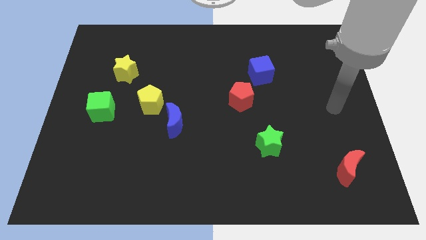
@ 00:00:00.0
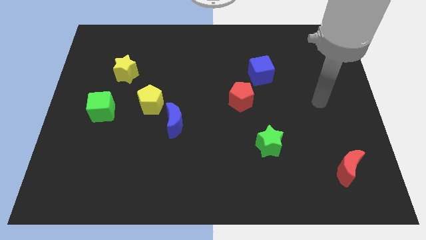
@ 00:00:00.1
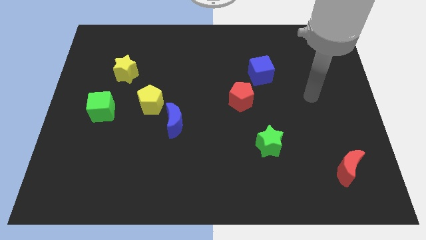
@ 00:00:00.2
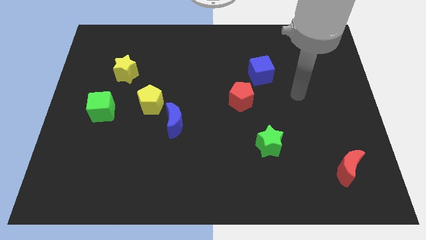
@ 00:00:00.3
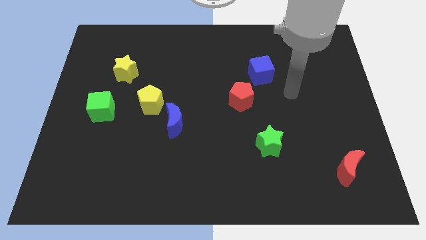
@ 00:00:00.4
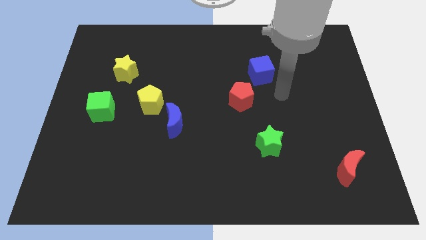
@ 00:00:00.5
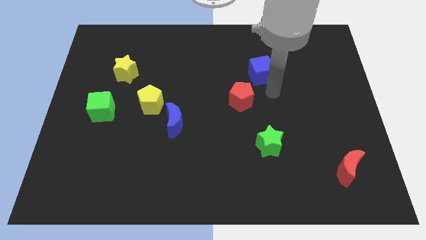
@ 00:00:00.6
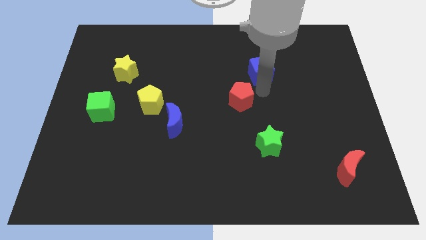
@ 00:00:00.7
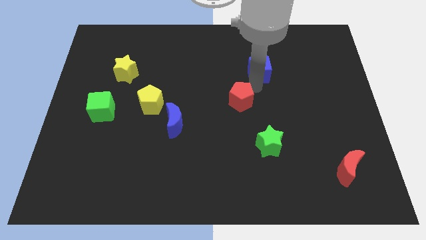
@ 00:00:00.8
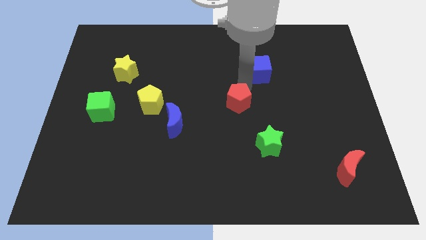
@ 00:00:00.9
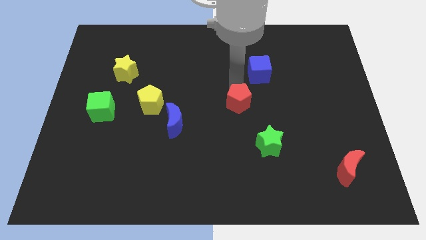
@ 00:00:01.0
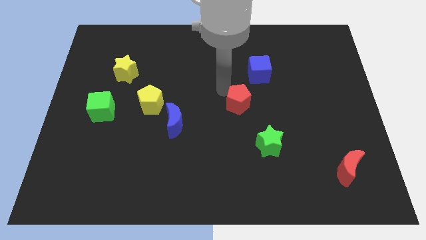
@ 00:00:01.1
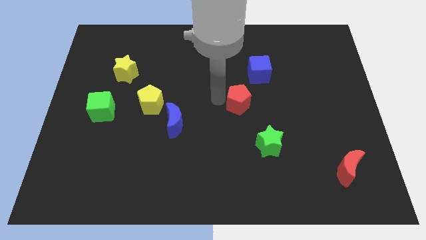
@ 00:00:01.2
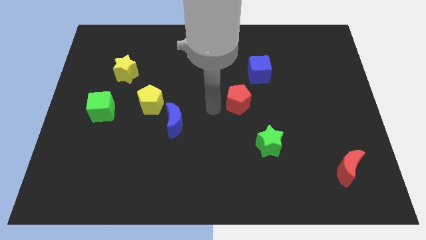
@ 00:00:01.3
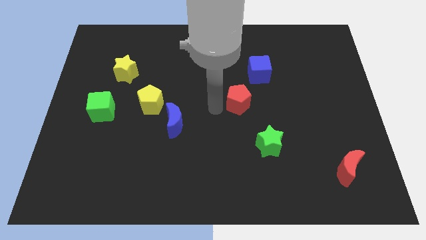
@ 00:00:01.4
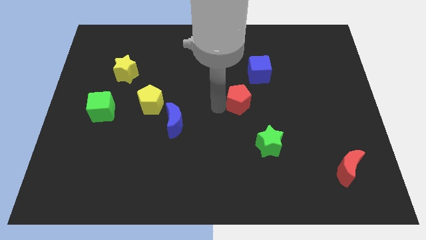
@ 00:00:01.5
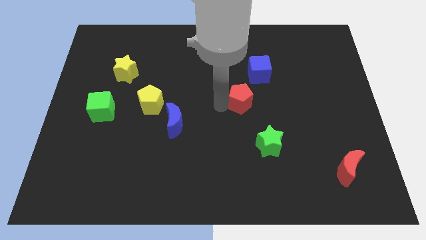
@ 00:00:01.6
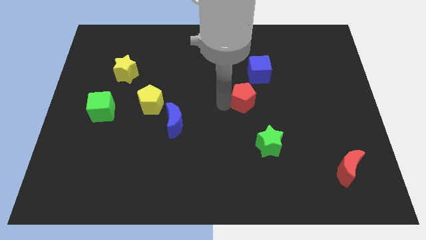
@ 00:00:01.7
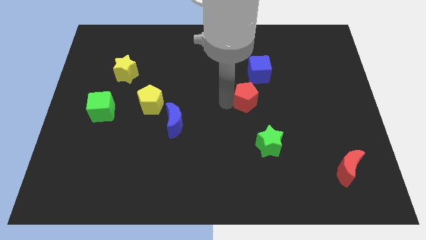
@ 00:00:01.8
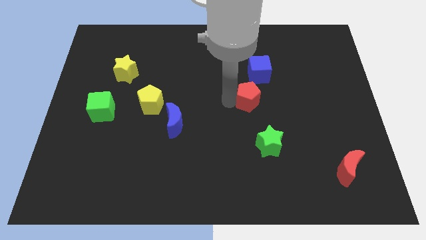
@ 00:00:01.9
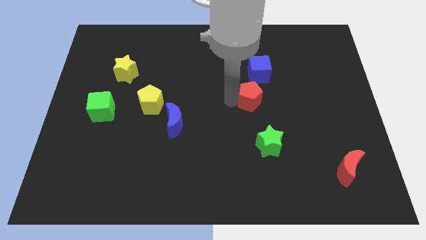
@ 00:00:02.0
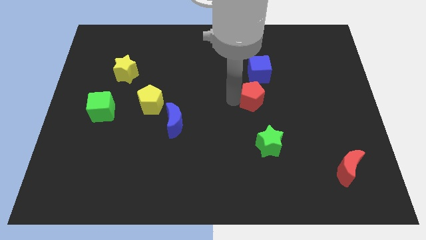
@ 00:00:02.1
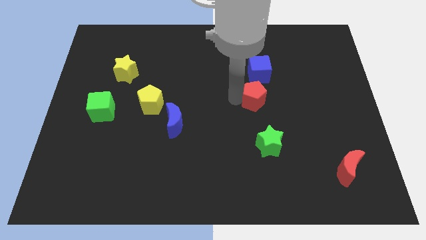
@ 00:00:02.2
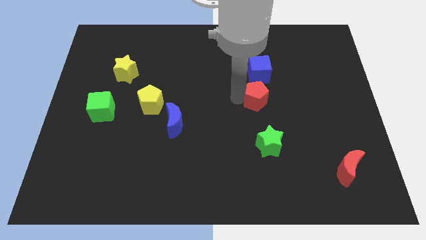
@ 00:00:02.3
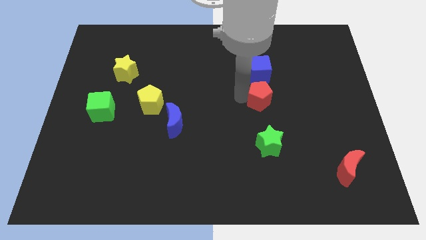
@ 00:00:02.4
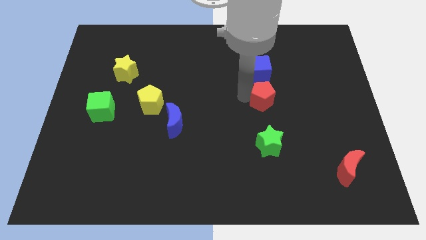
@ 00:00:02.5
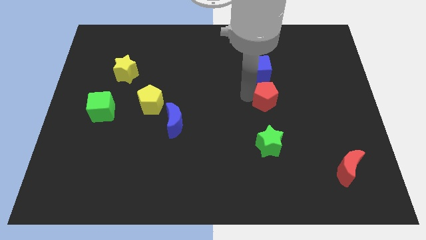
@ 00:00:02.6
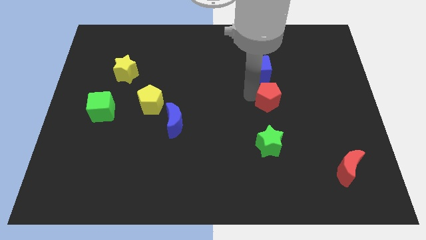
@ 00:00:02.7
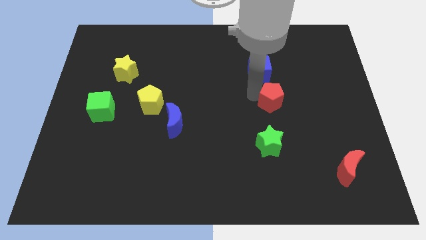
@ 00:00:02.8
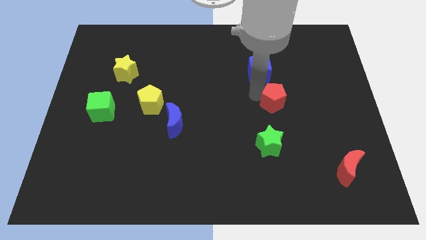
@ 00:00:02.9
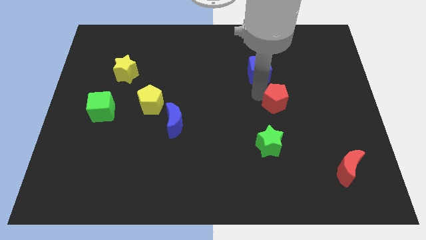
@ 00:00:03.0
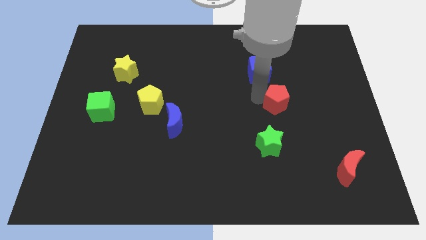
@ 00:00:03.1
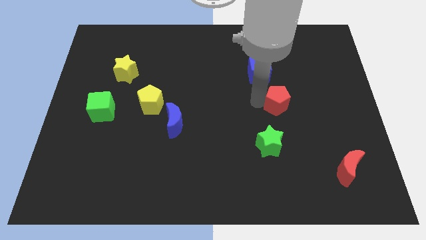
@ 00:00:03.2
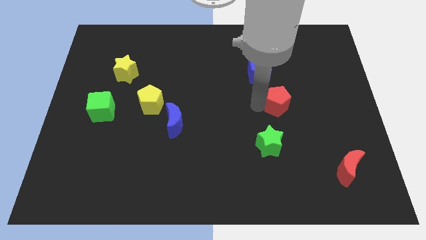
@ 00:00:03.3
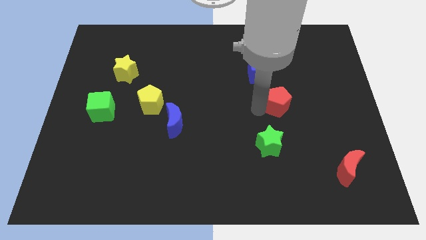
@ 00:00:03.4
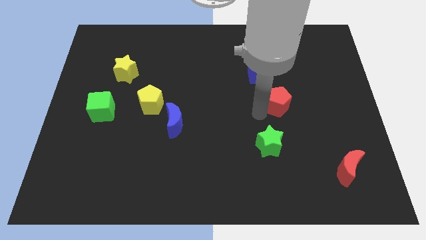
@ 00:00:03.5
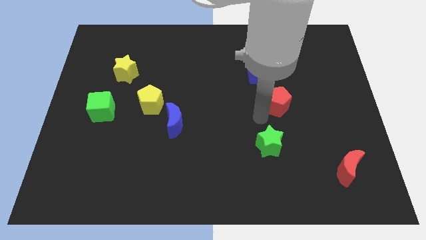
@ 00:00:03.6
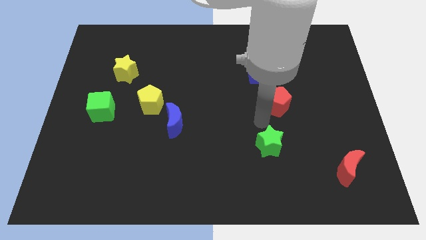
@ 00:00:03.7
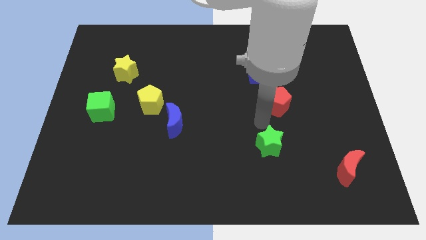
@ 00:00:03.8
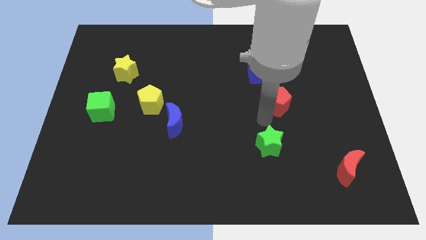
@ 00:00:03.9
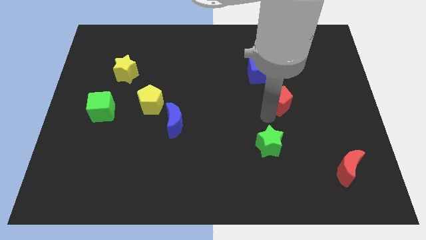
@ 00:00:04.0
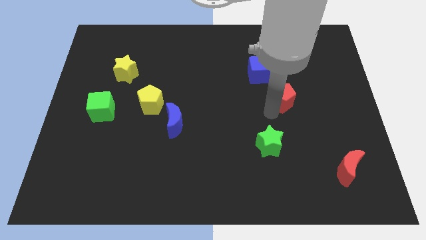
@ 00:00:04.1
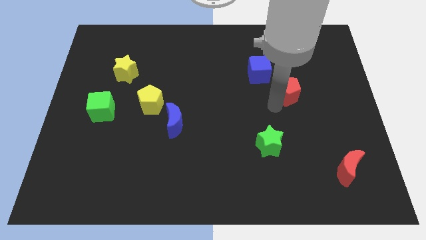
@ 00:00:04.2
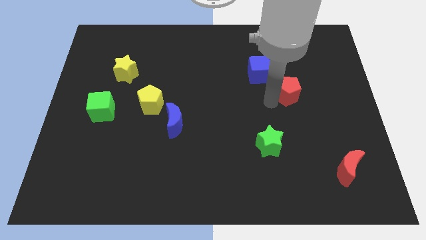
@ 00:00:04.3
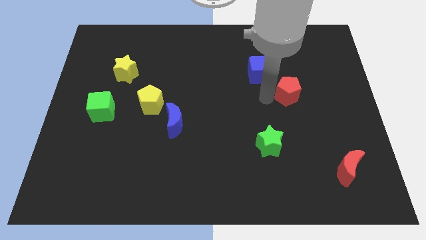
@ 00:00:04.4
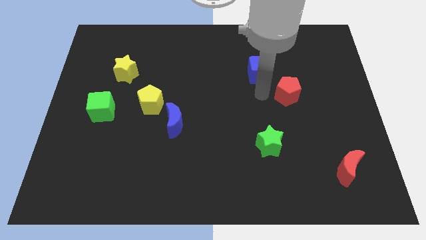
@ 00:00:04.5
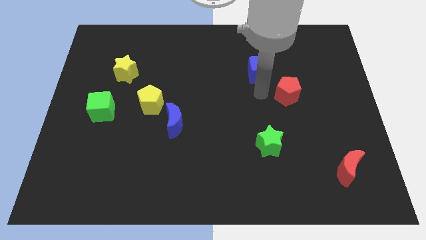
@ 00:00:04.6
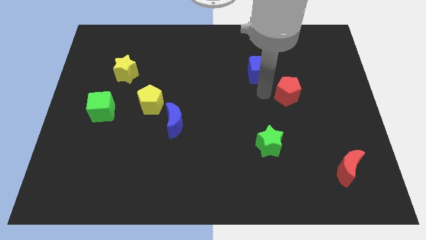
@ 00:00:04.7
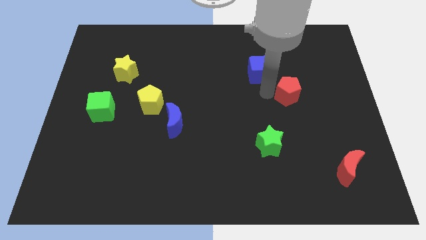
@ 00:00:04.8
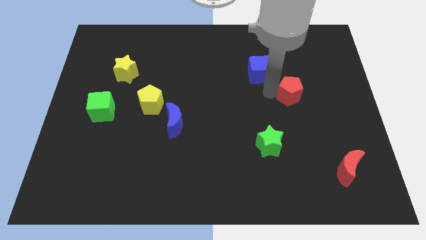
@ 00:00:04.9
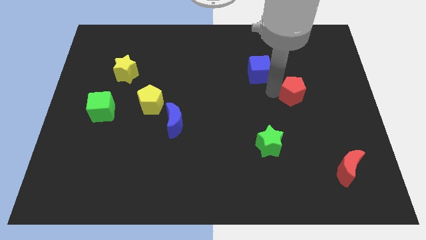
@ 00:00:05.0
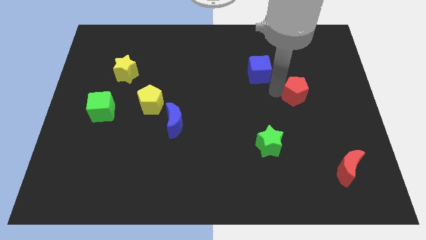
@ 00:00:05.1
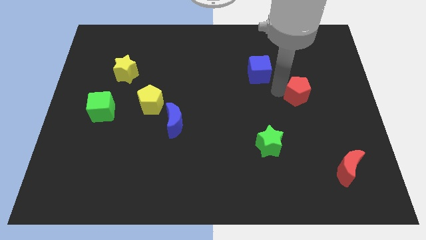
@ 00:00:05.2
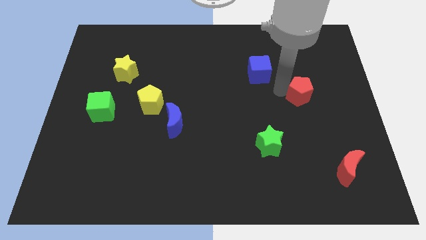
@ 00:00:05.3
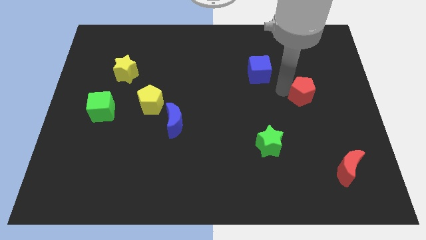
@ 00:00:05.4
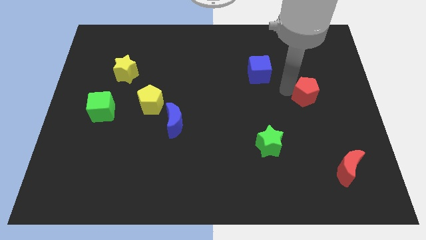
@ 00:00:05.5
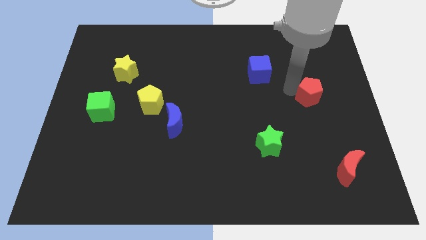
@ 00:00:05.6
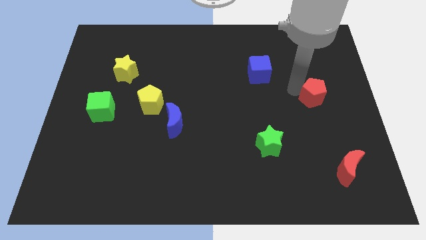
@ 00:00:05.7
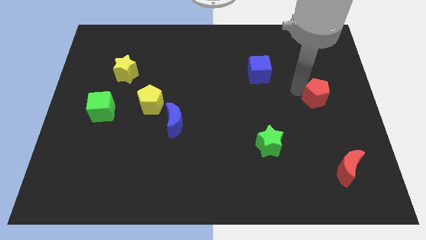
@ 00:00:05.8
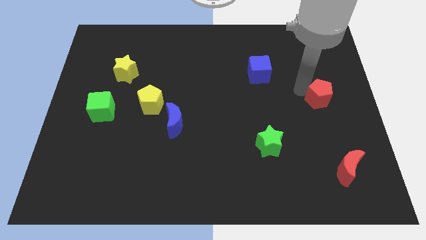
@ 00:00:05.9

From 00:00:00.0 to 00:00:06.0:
push the red pentagon to the right side of the board
